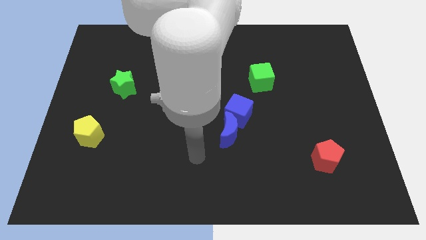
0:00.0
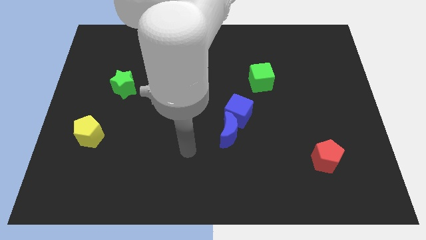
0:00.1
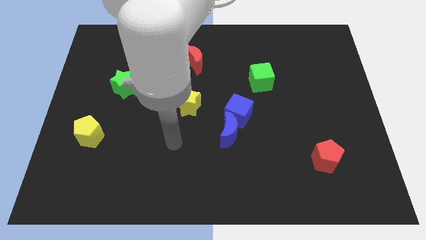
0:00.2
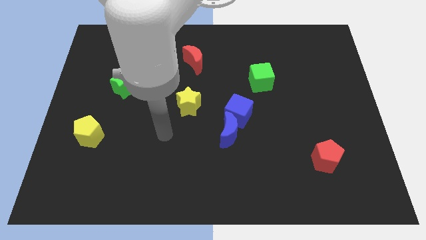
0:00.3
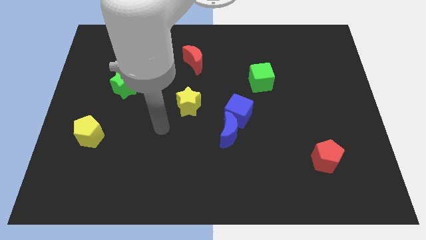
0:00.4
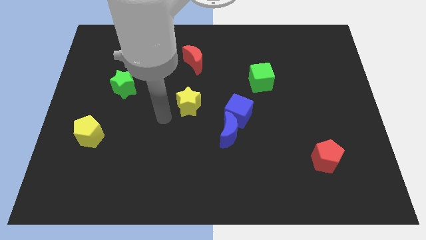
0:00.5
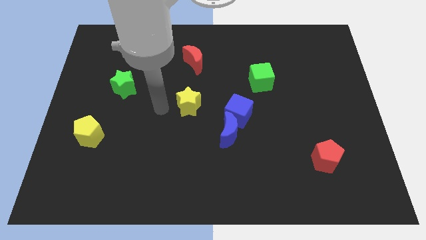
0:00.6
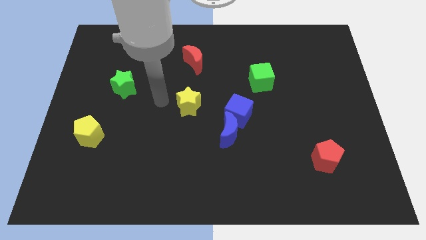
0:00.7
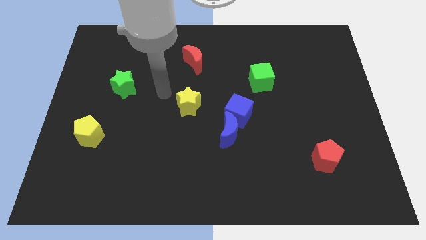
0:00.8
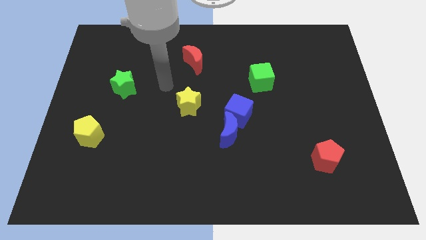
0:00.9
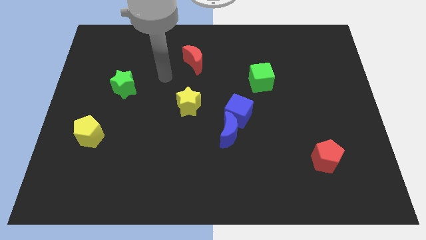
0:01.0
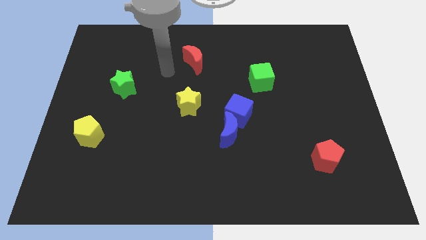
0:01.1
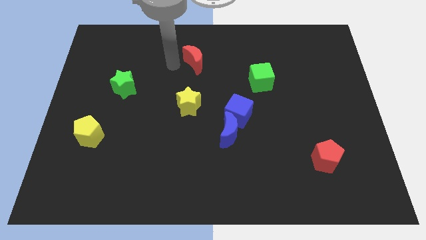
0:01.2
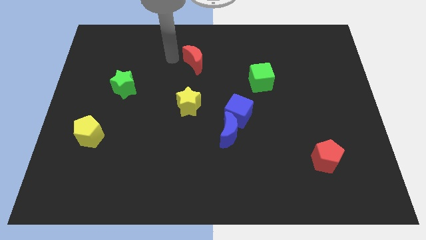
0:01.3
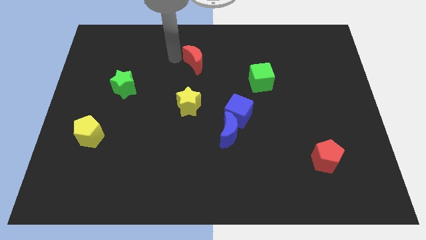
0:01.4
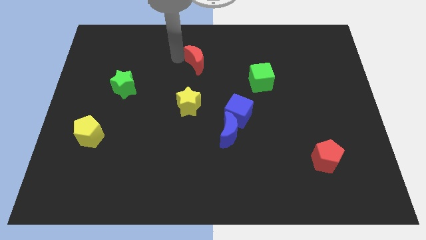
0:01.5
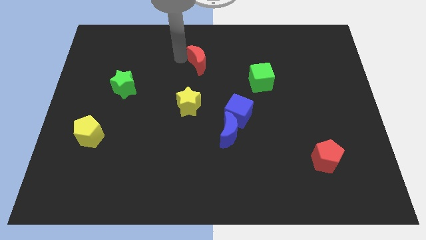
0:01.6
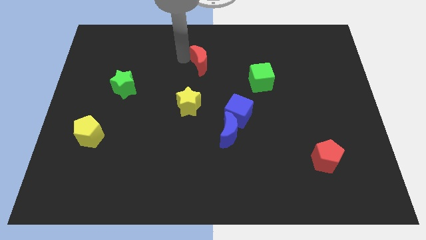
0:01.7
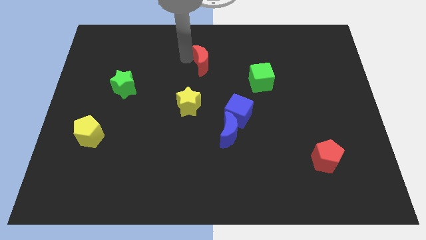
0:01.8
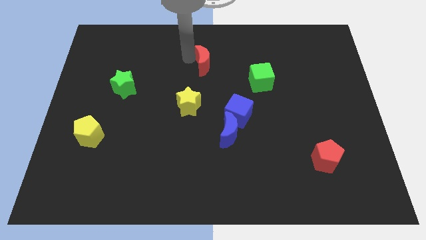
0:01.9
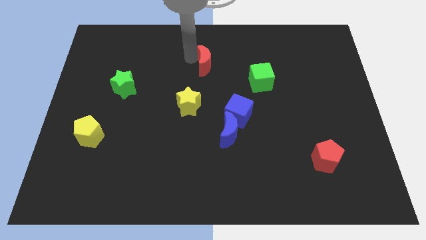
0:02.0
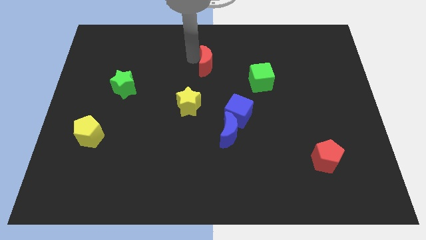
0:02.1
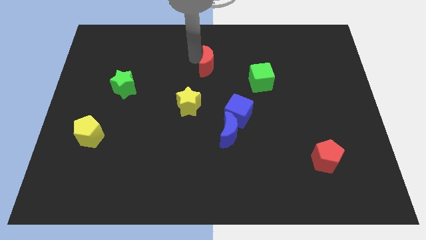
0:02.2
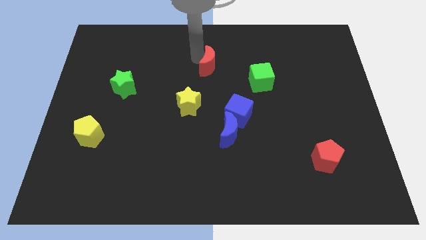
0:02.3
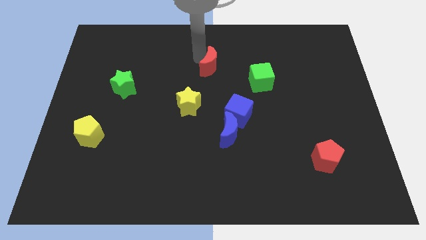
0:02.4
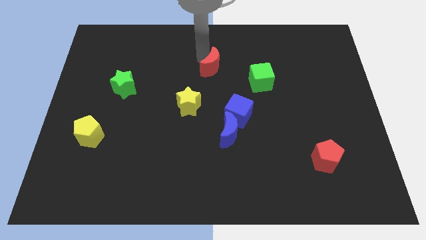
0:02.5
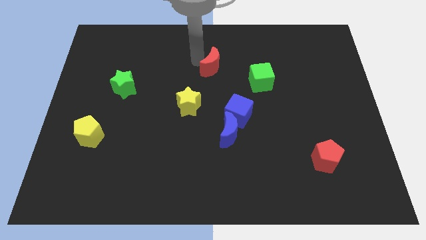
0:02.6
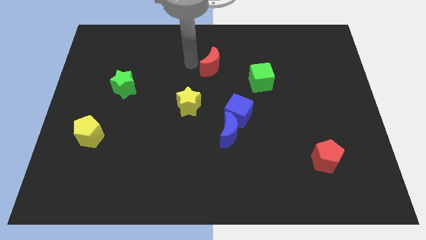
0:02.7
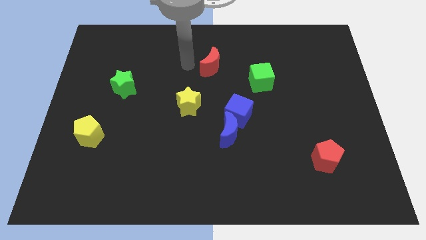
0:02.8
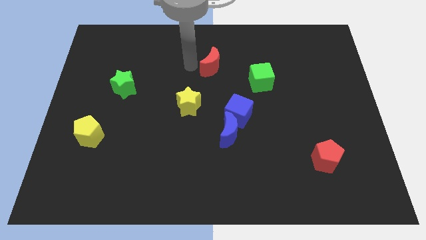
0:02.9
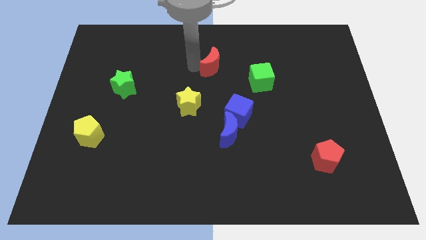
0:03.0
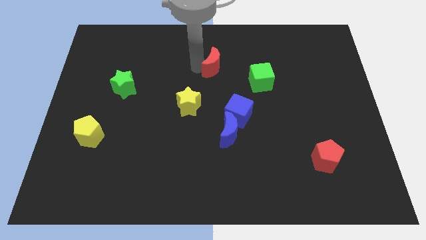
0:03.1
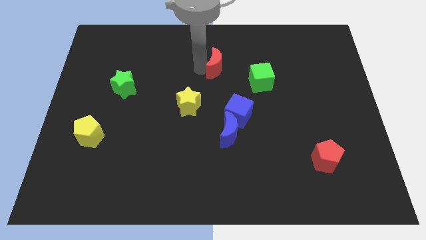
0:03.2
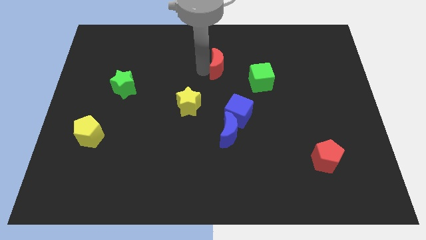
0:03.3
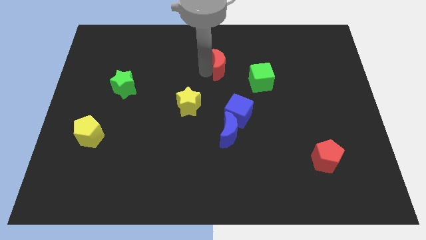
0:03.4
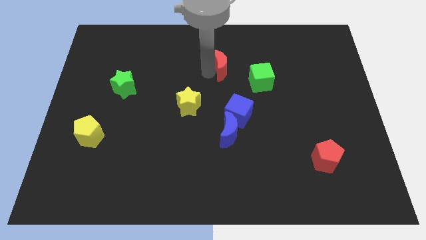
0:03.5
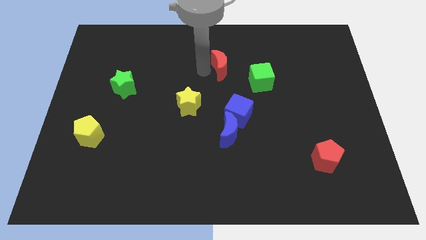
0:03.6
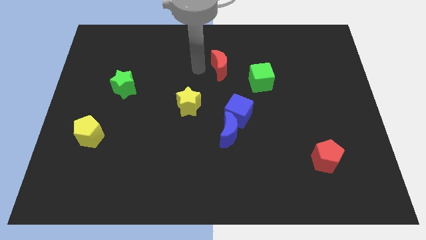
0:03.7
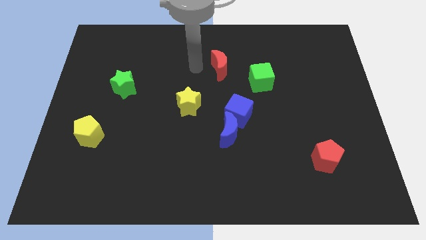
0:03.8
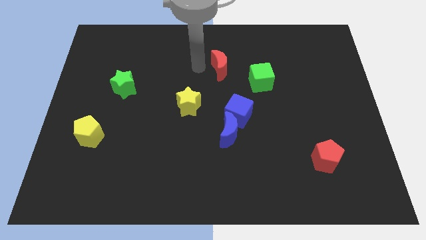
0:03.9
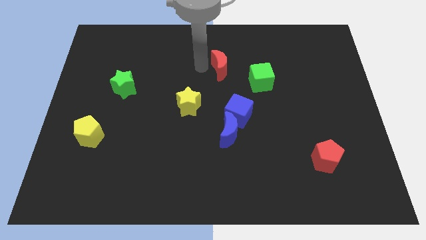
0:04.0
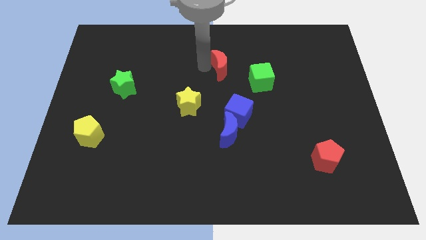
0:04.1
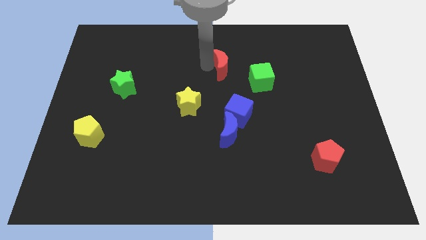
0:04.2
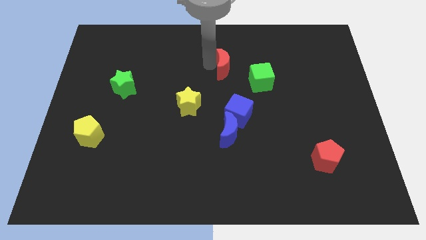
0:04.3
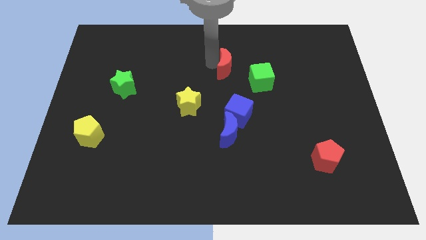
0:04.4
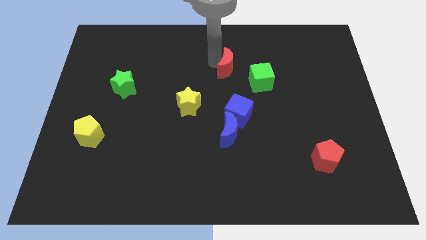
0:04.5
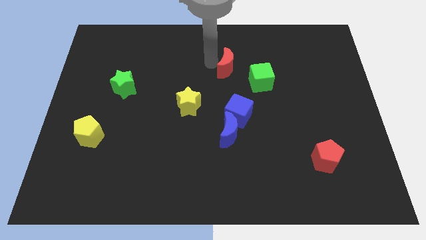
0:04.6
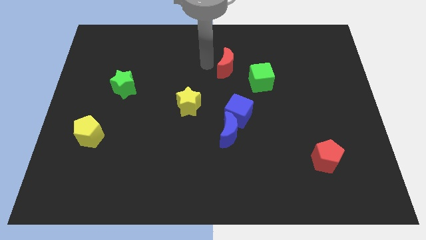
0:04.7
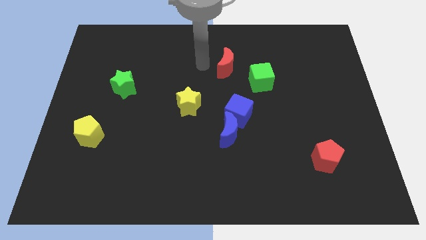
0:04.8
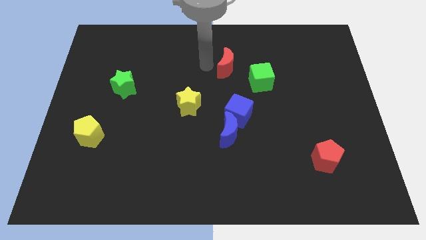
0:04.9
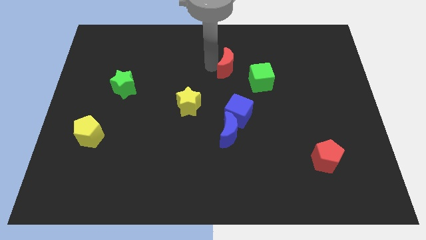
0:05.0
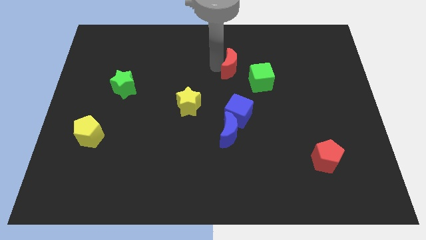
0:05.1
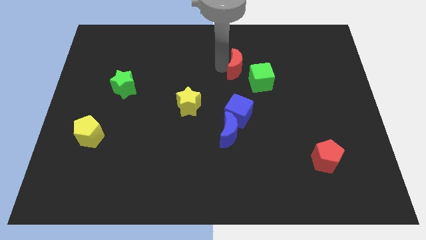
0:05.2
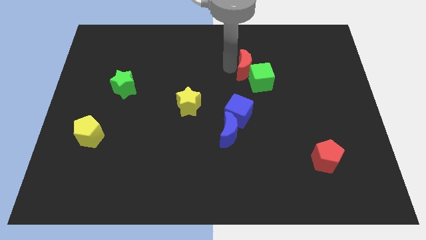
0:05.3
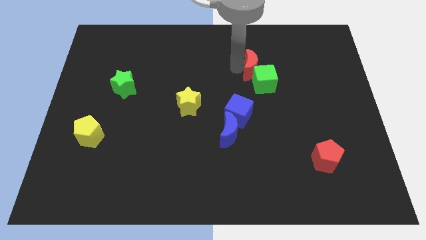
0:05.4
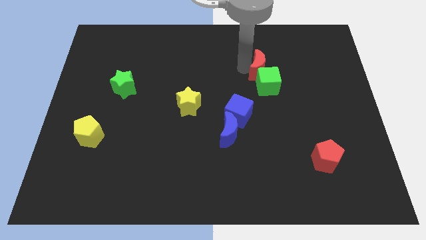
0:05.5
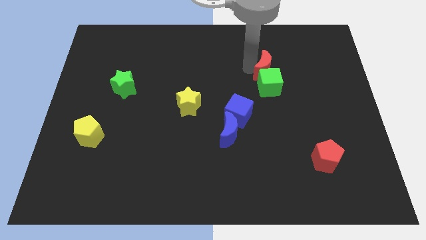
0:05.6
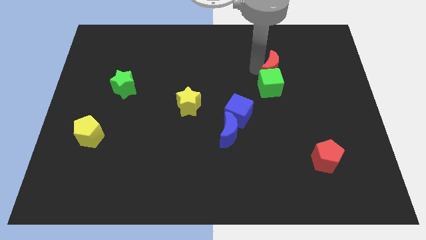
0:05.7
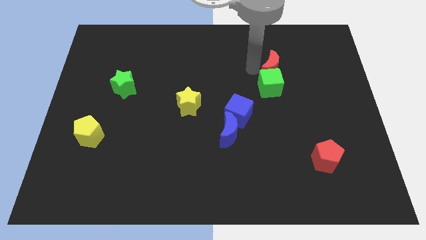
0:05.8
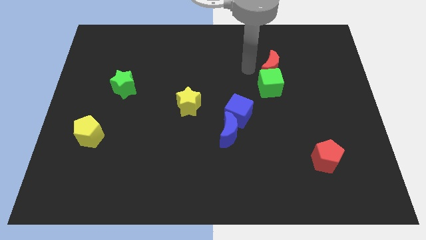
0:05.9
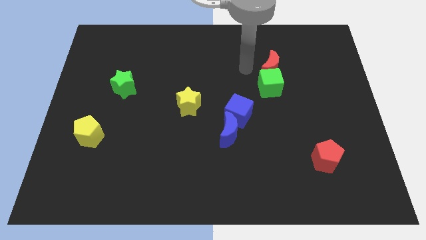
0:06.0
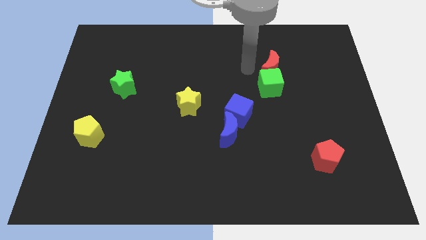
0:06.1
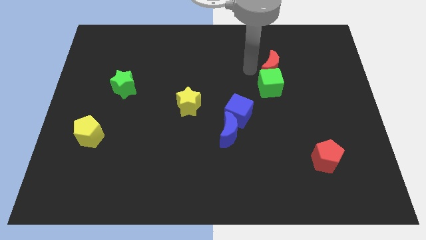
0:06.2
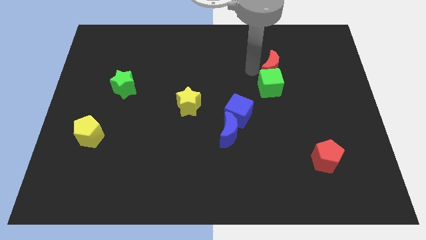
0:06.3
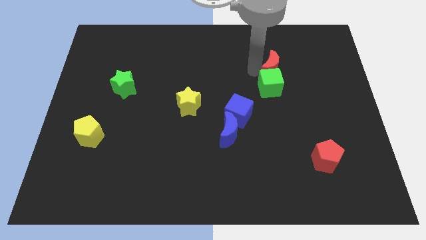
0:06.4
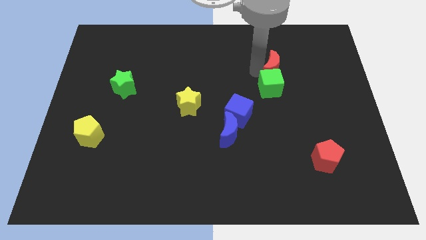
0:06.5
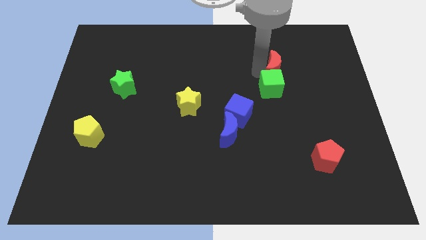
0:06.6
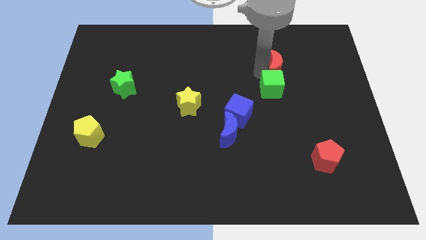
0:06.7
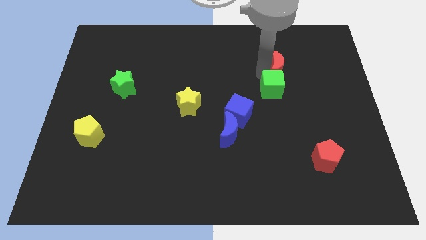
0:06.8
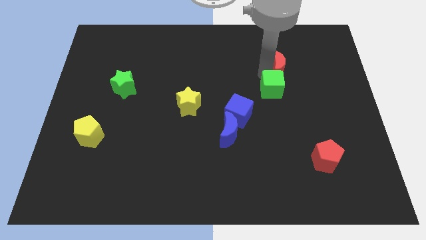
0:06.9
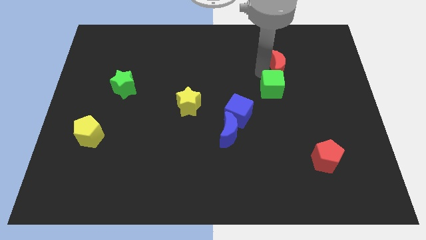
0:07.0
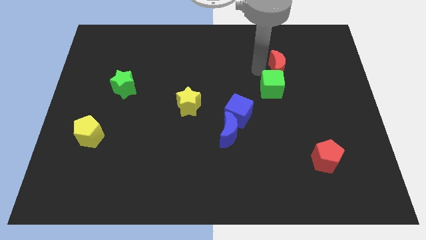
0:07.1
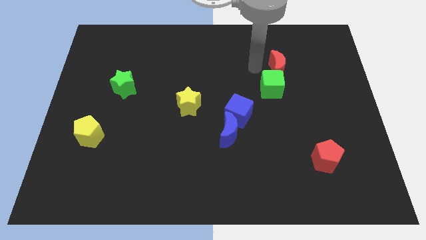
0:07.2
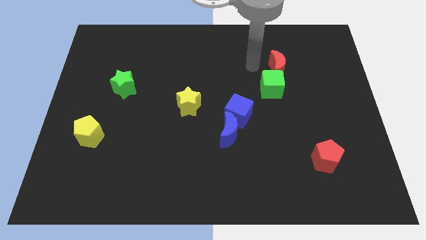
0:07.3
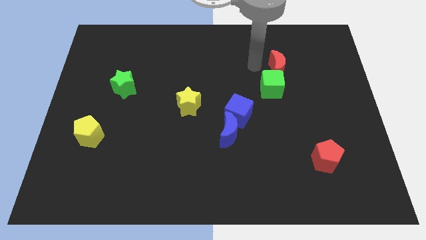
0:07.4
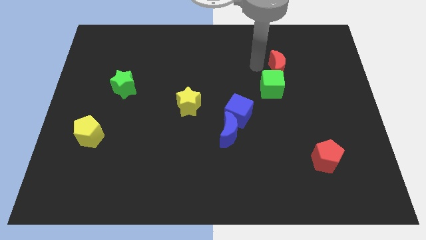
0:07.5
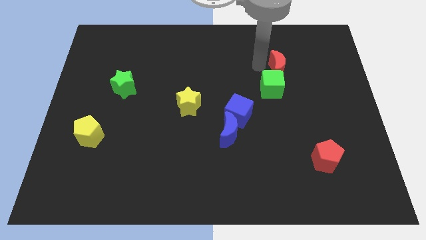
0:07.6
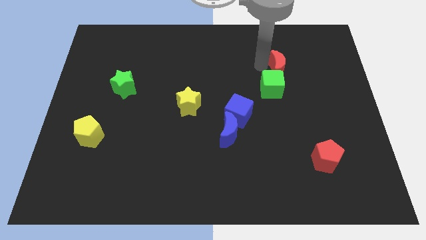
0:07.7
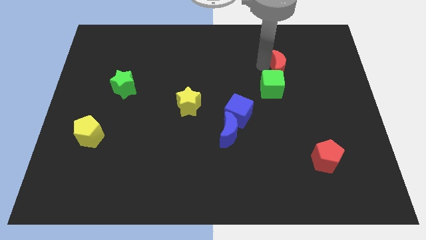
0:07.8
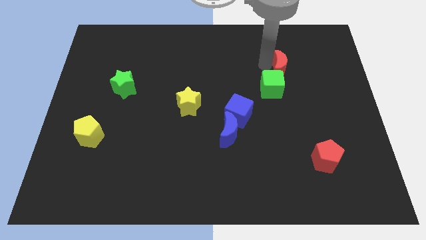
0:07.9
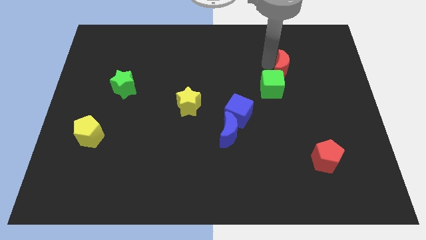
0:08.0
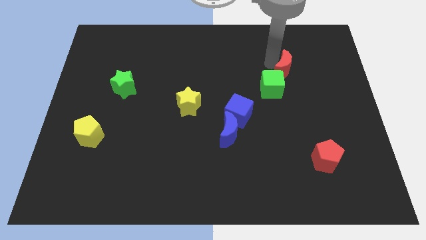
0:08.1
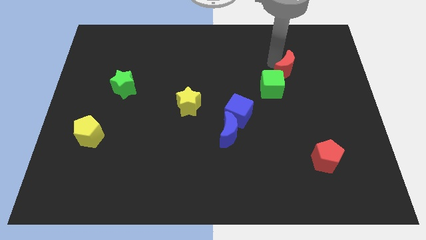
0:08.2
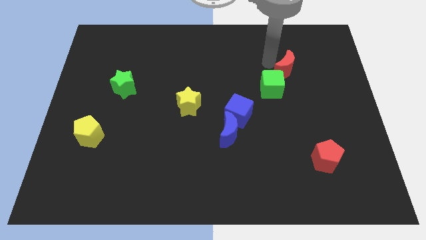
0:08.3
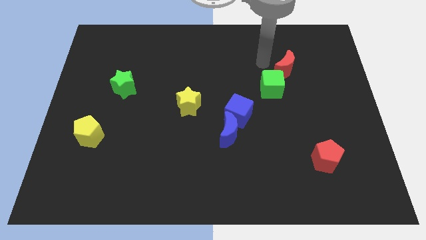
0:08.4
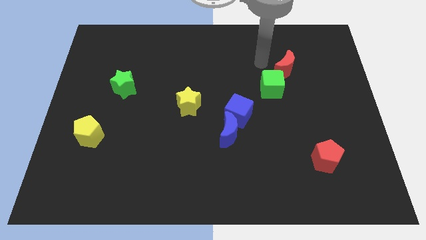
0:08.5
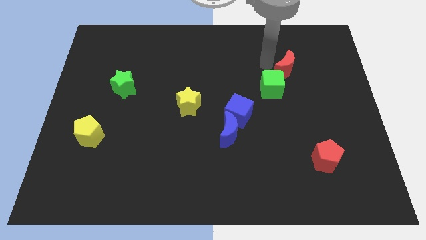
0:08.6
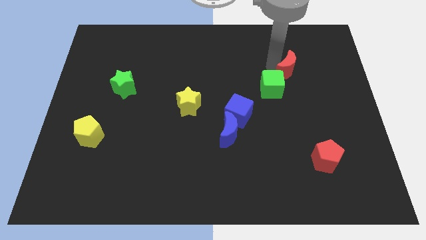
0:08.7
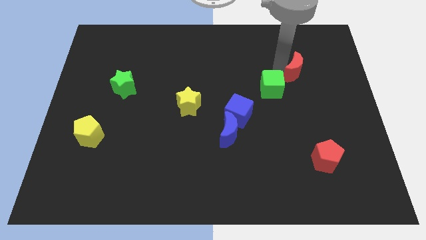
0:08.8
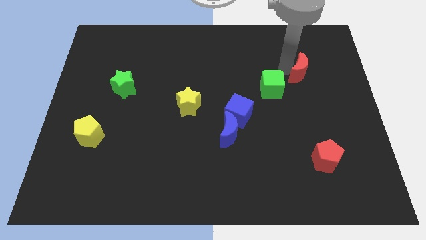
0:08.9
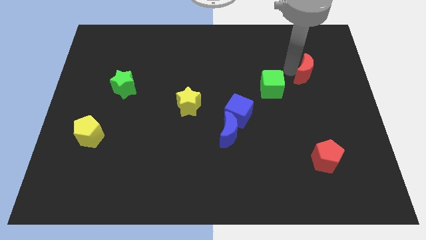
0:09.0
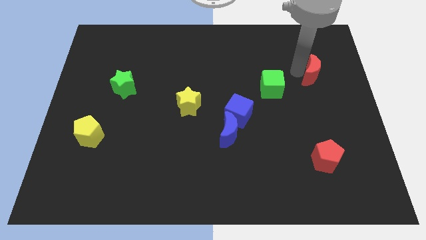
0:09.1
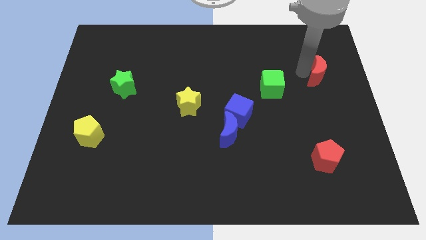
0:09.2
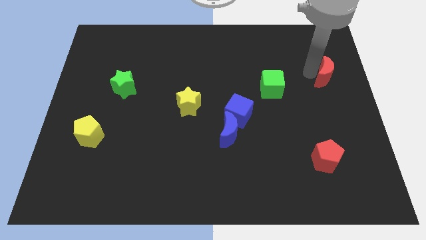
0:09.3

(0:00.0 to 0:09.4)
slide the red moon to the right side of the board
